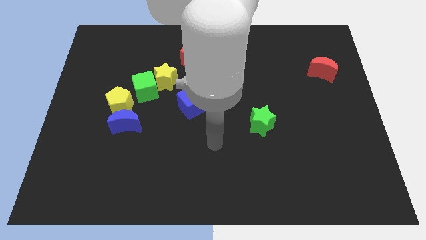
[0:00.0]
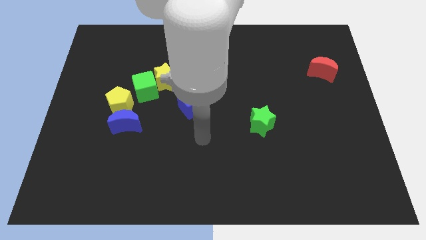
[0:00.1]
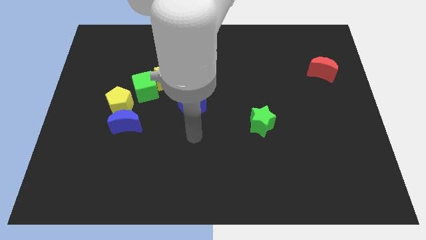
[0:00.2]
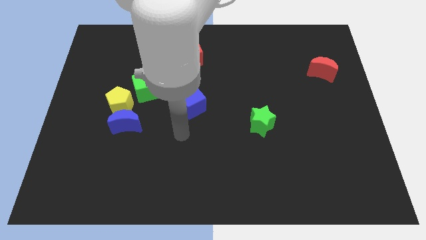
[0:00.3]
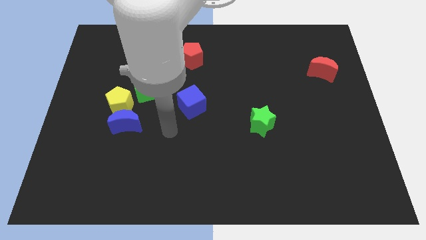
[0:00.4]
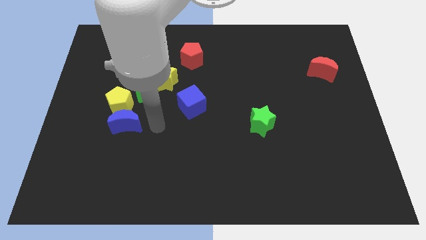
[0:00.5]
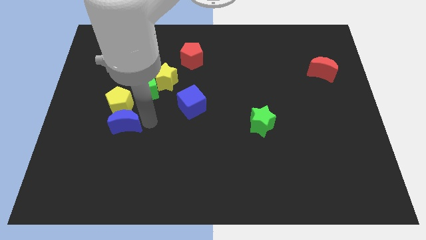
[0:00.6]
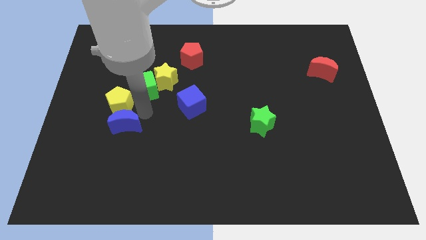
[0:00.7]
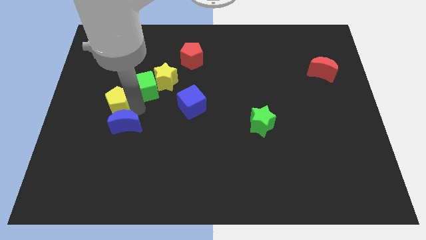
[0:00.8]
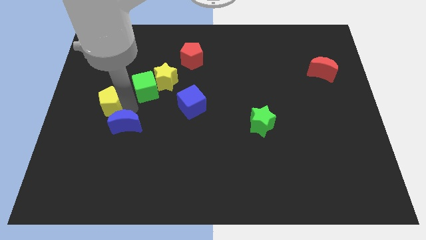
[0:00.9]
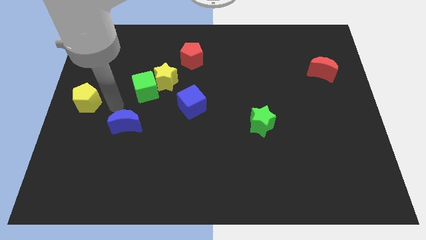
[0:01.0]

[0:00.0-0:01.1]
pull the blue moon apart from the yellow pentagon

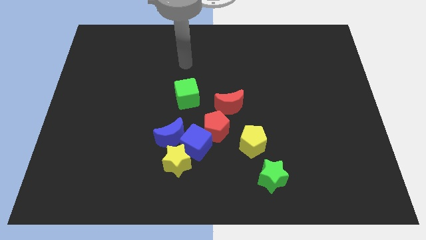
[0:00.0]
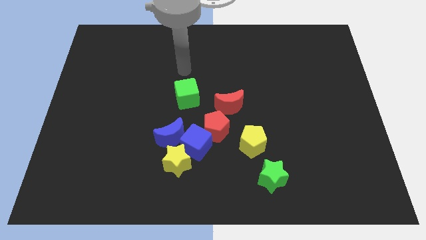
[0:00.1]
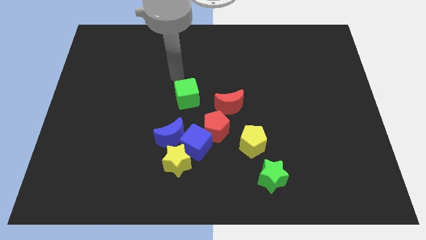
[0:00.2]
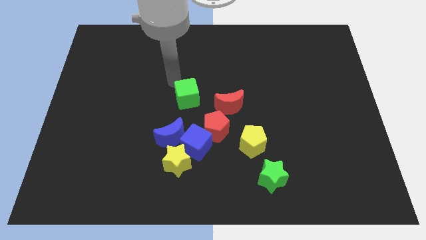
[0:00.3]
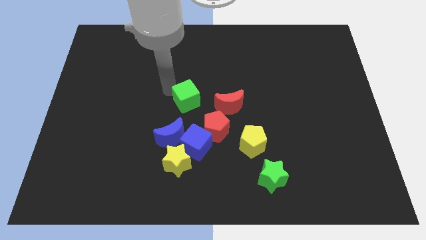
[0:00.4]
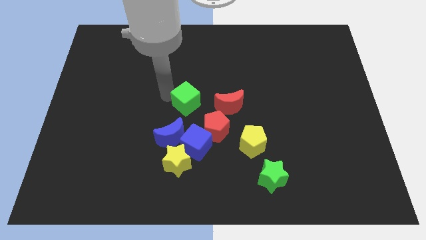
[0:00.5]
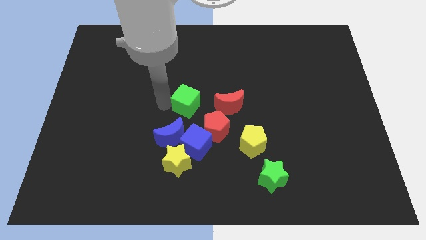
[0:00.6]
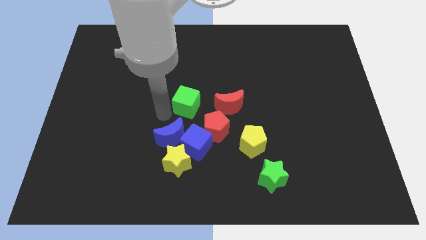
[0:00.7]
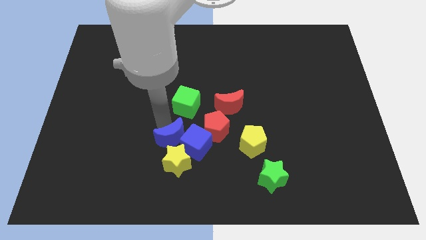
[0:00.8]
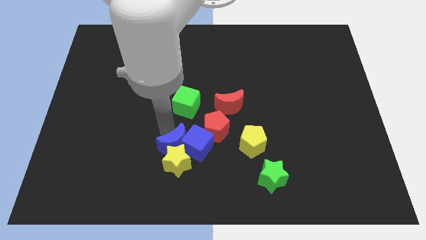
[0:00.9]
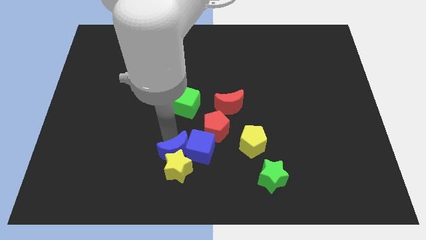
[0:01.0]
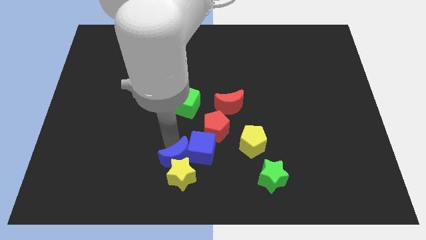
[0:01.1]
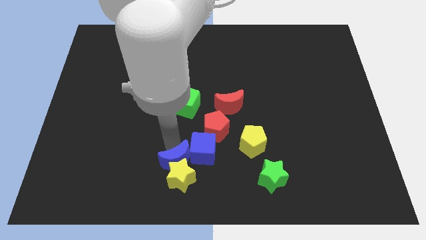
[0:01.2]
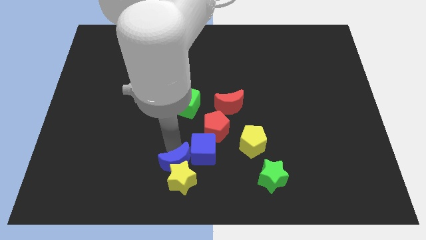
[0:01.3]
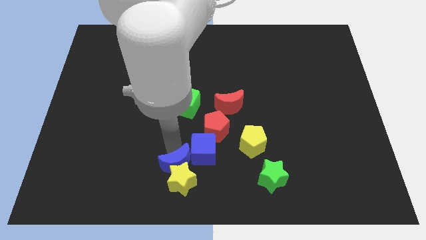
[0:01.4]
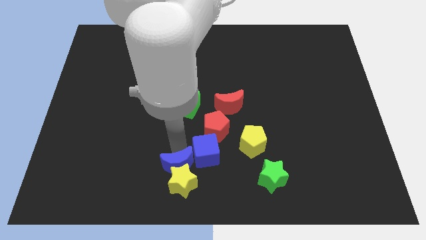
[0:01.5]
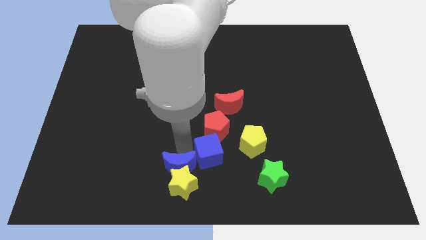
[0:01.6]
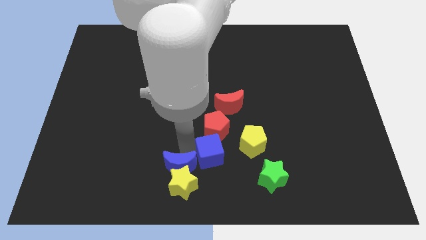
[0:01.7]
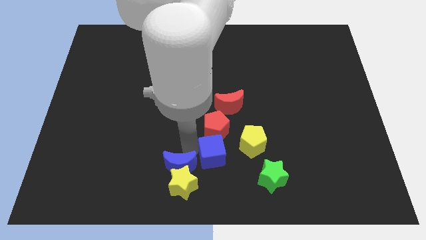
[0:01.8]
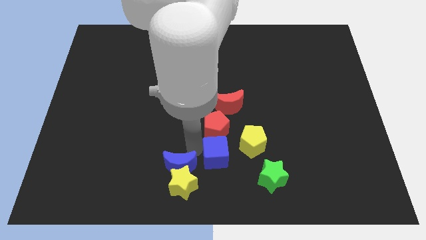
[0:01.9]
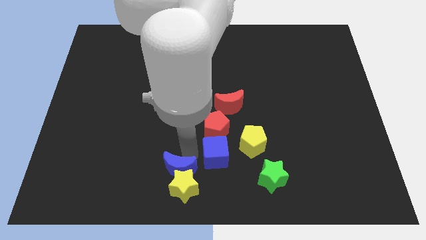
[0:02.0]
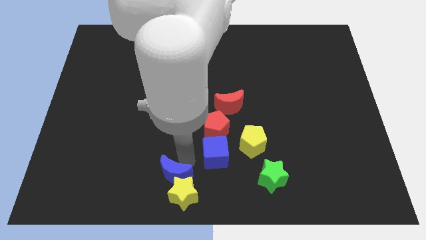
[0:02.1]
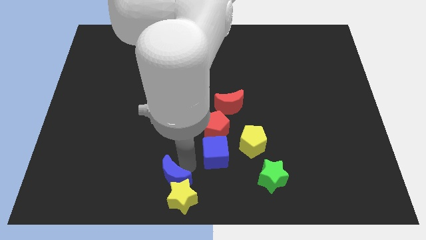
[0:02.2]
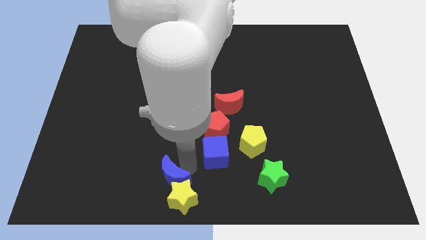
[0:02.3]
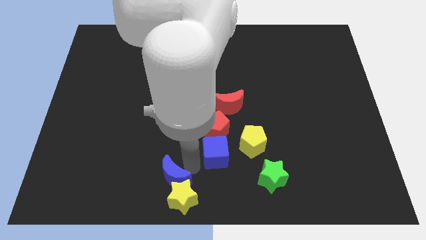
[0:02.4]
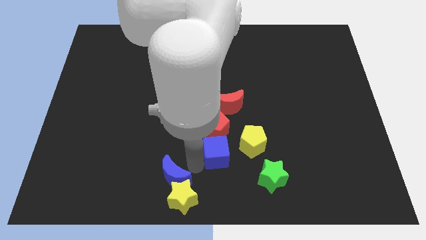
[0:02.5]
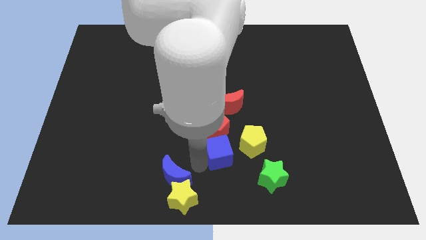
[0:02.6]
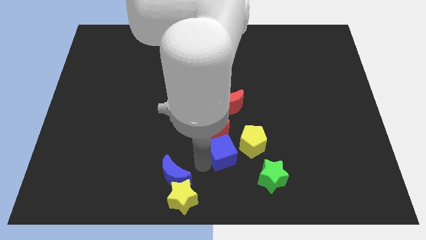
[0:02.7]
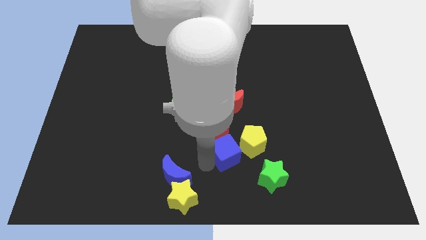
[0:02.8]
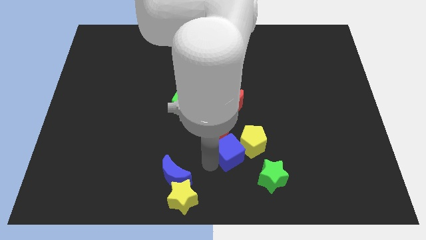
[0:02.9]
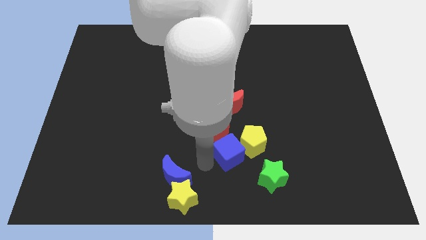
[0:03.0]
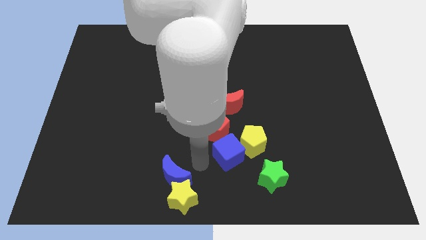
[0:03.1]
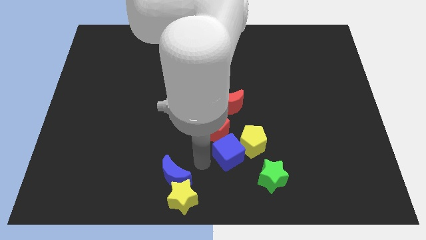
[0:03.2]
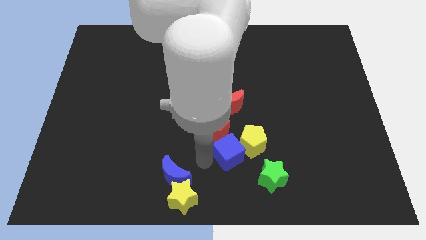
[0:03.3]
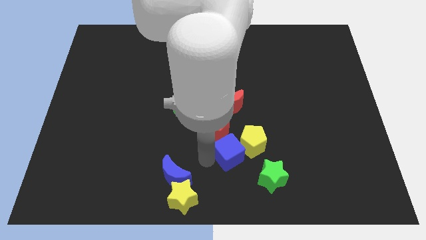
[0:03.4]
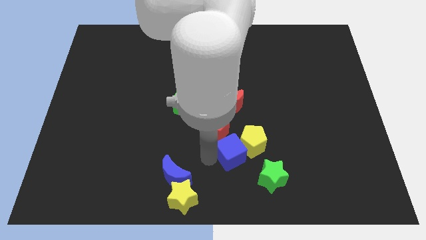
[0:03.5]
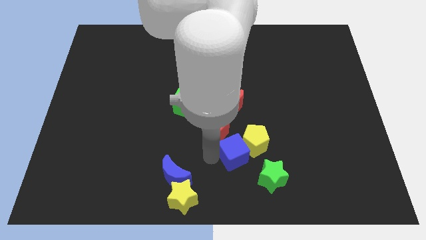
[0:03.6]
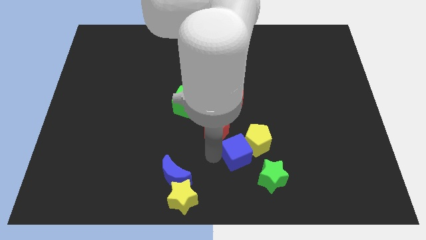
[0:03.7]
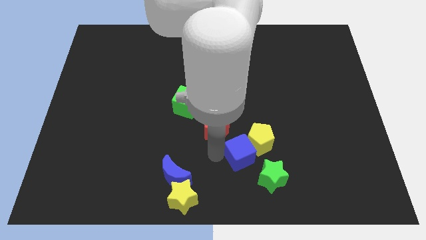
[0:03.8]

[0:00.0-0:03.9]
separate the blue cube from the blue moon, red pentagon, and yellow star

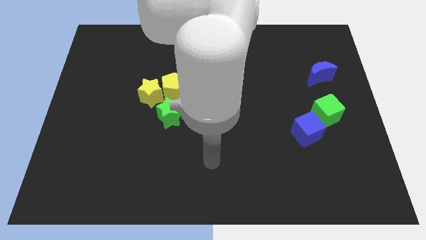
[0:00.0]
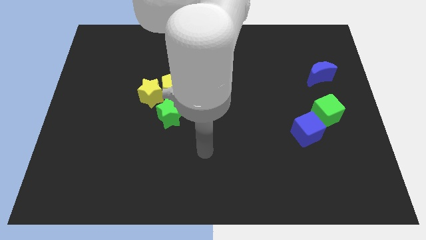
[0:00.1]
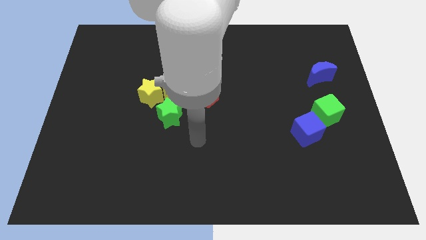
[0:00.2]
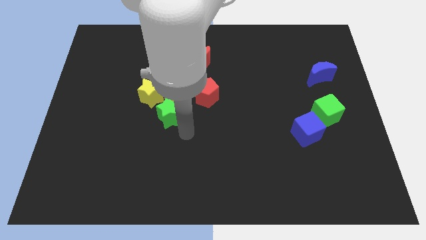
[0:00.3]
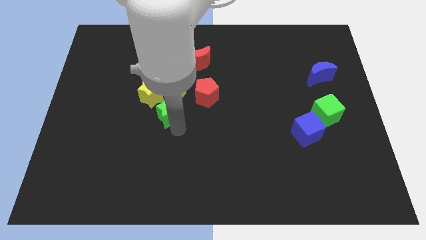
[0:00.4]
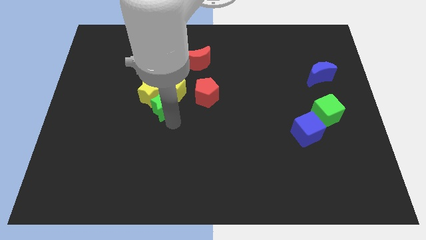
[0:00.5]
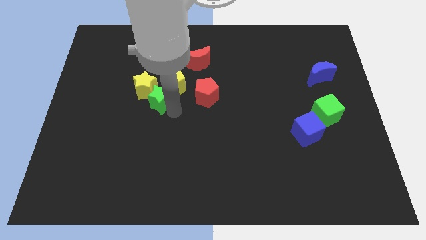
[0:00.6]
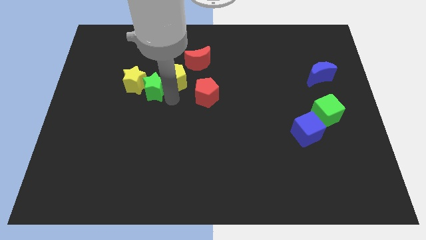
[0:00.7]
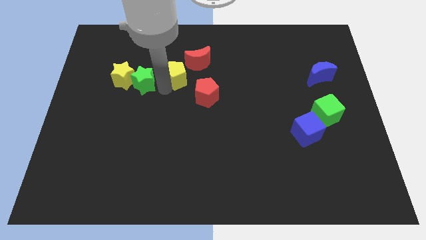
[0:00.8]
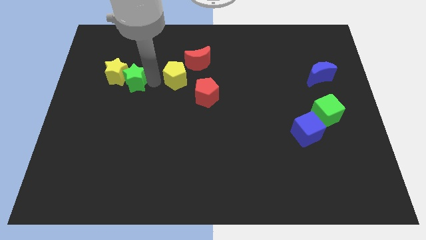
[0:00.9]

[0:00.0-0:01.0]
pull the yellow star apart from the yellow pentagon and green star

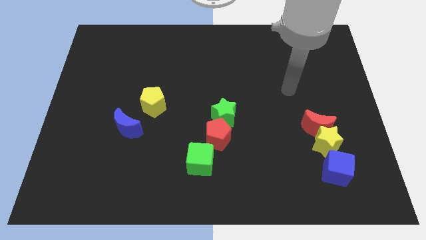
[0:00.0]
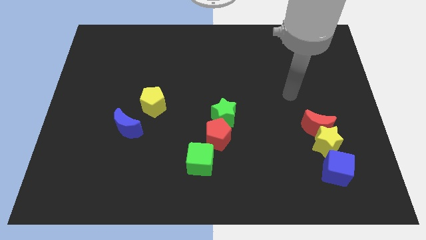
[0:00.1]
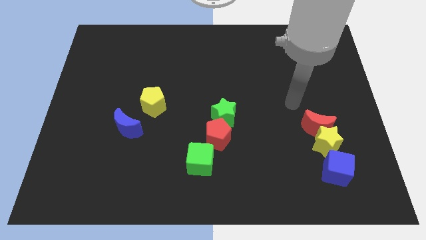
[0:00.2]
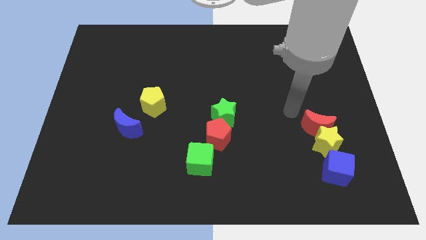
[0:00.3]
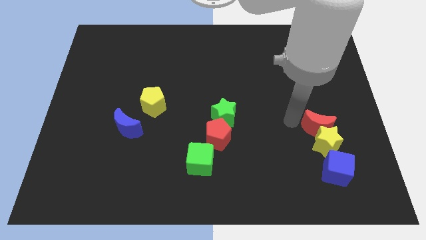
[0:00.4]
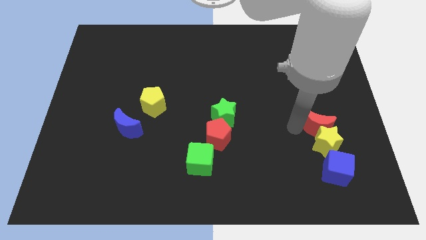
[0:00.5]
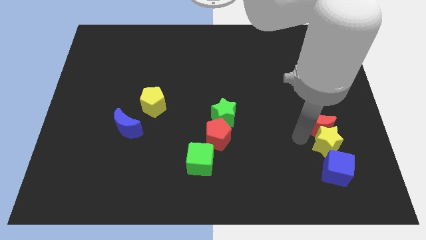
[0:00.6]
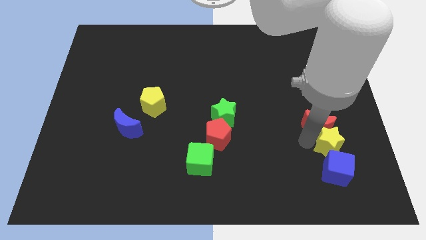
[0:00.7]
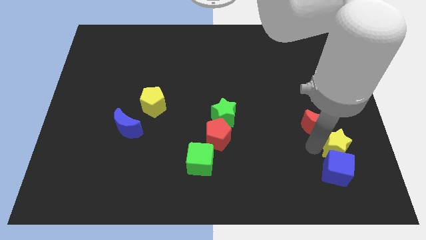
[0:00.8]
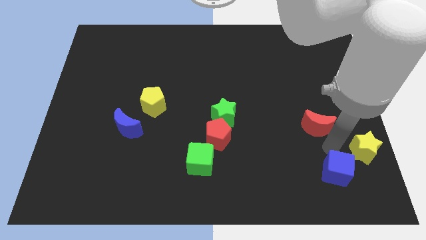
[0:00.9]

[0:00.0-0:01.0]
move the red moon away from the yellow star

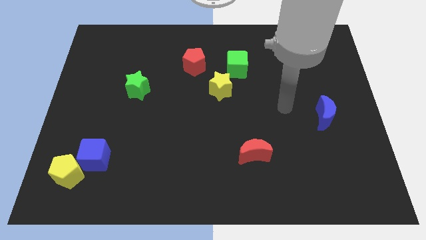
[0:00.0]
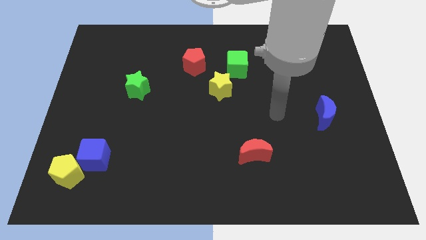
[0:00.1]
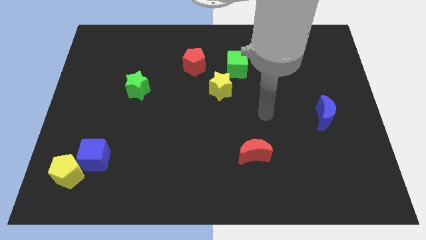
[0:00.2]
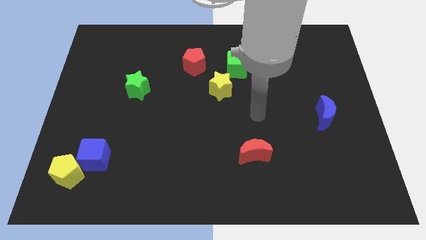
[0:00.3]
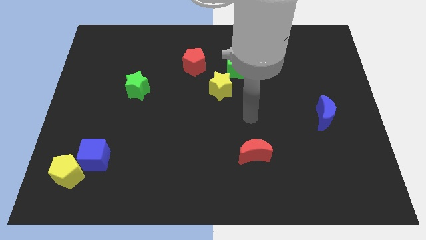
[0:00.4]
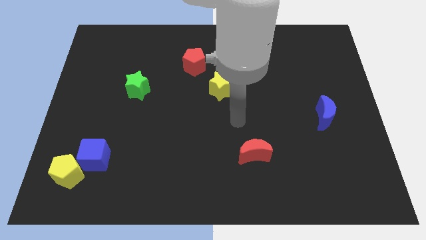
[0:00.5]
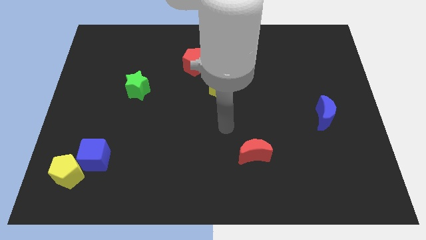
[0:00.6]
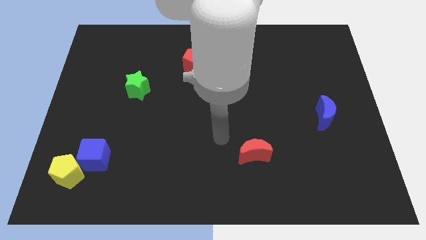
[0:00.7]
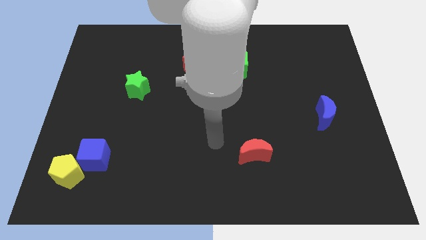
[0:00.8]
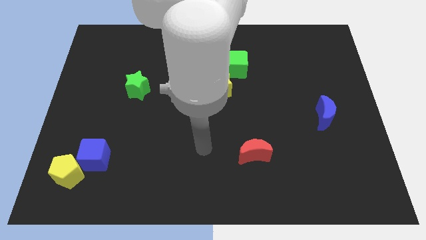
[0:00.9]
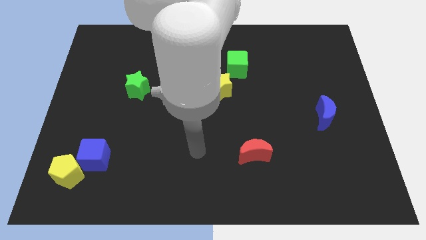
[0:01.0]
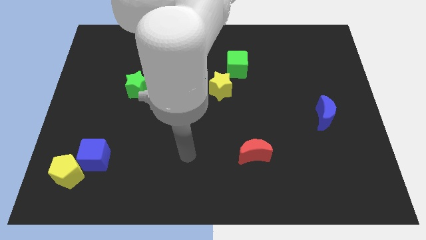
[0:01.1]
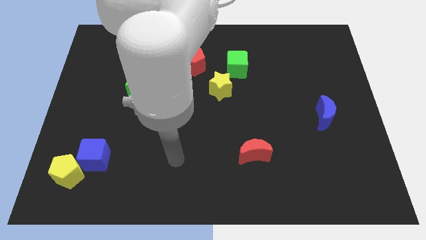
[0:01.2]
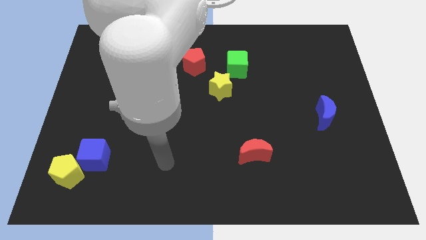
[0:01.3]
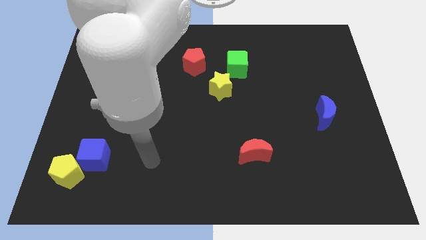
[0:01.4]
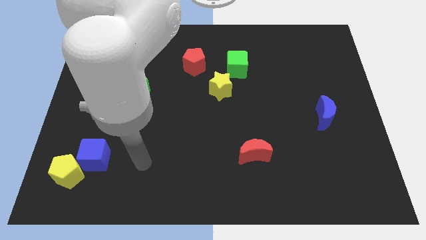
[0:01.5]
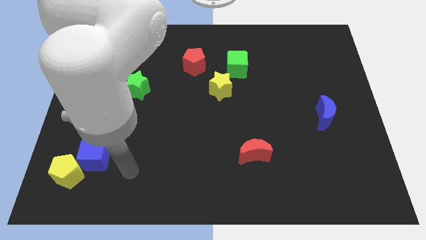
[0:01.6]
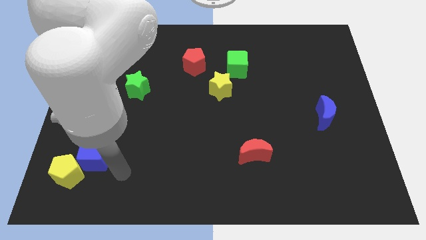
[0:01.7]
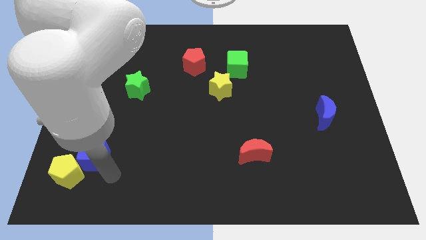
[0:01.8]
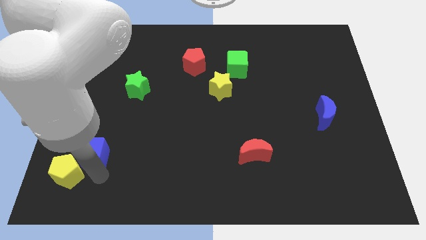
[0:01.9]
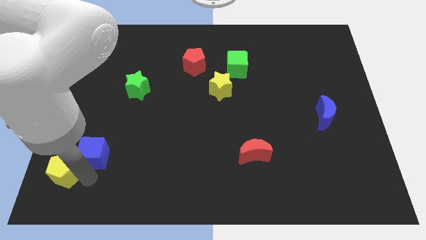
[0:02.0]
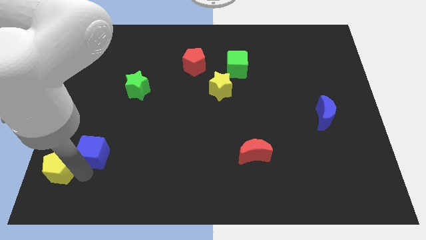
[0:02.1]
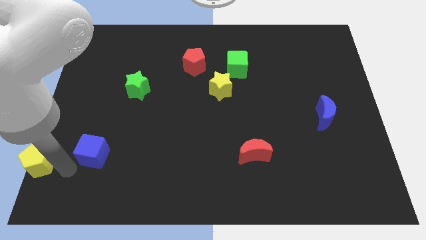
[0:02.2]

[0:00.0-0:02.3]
move the blue cube away from the yellow pentagon
